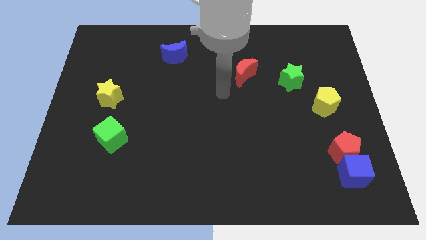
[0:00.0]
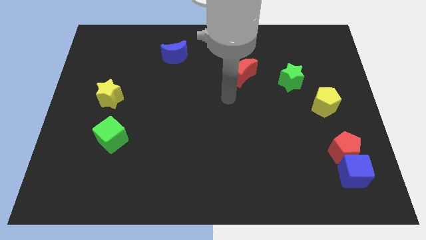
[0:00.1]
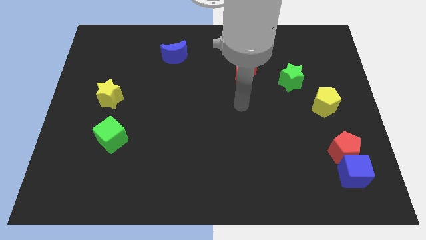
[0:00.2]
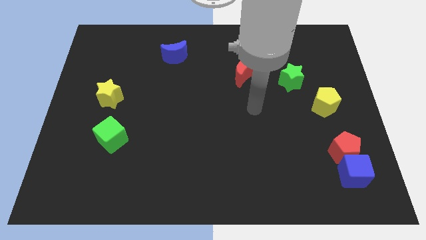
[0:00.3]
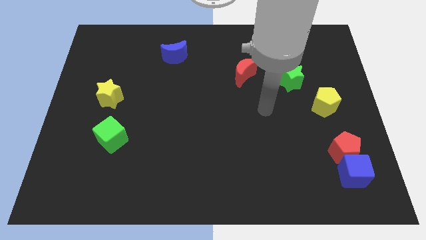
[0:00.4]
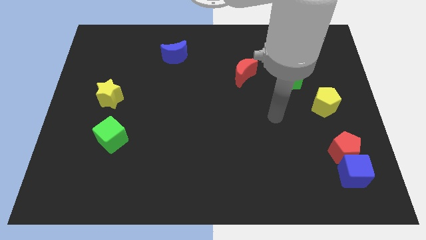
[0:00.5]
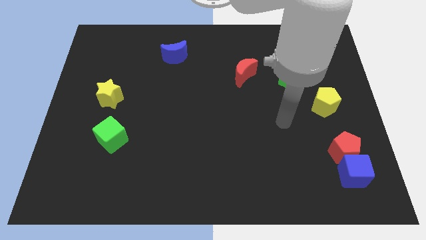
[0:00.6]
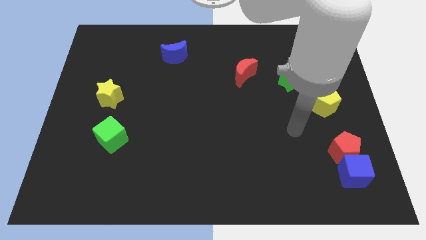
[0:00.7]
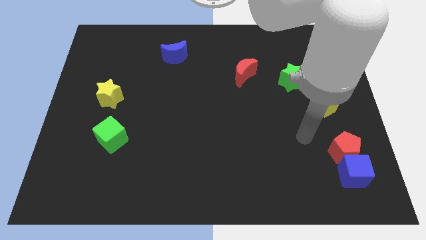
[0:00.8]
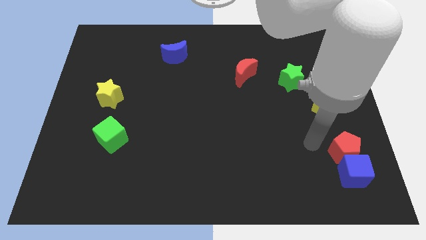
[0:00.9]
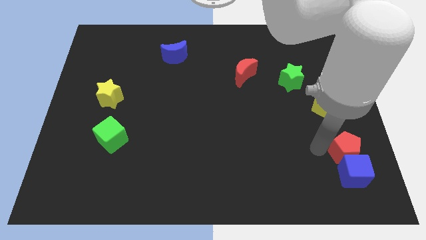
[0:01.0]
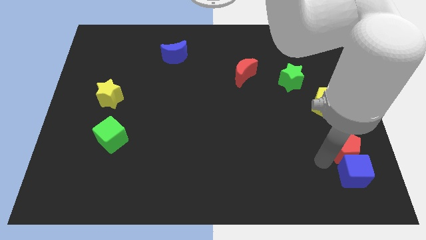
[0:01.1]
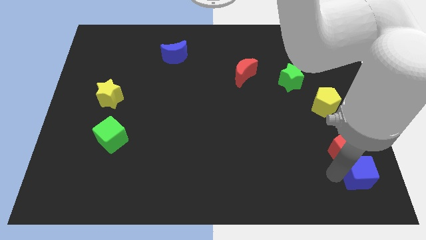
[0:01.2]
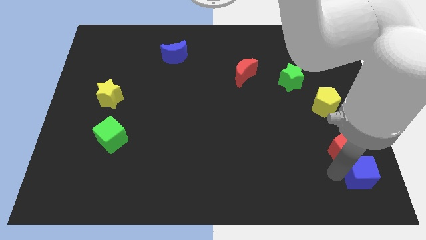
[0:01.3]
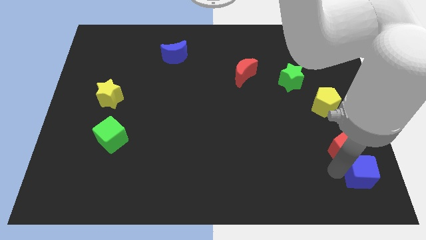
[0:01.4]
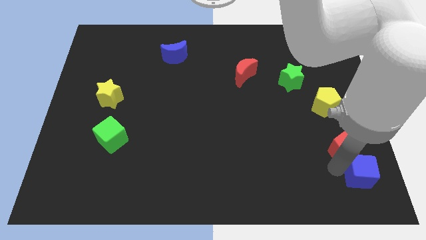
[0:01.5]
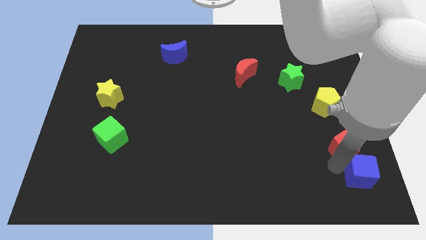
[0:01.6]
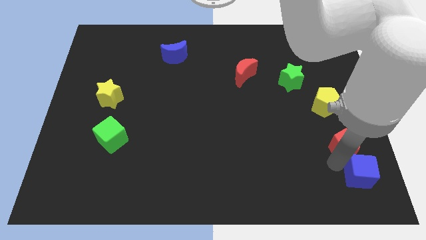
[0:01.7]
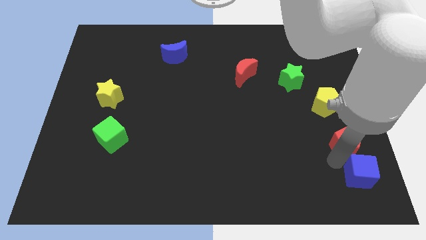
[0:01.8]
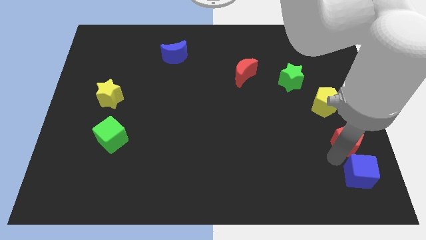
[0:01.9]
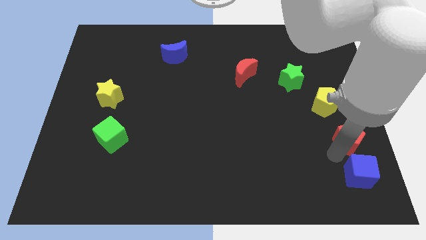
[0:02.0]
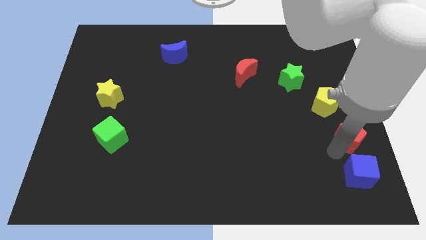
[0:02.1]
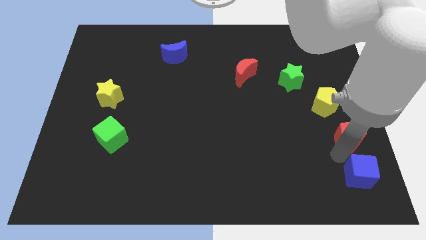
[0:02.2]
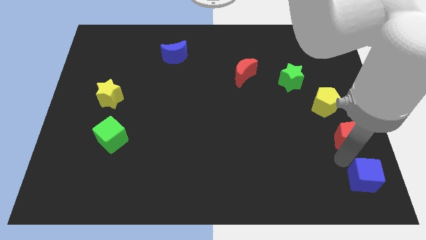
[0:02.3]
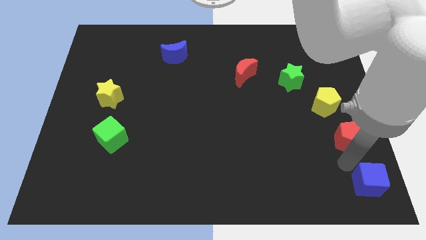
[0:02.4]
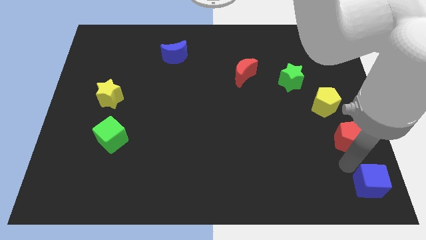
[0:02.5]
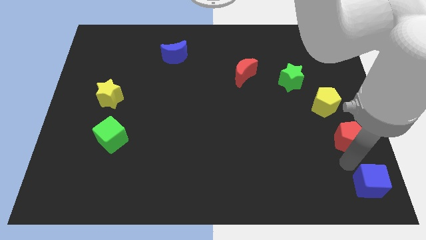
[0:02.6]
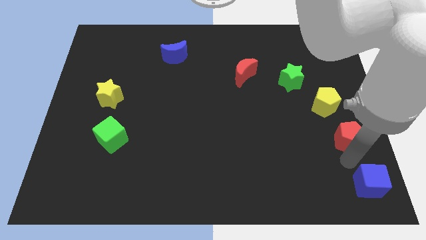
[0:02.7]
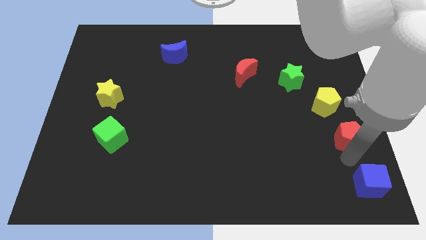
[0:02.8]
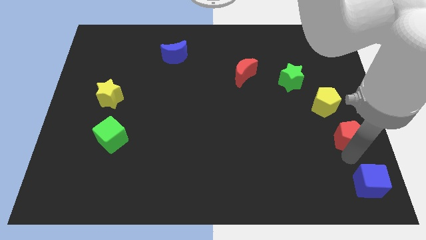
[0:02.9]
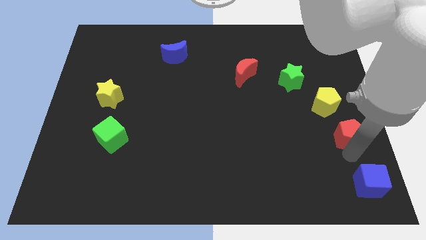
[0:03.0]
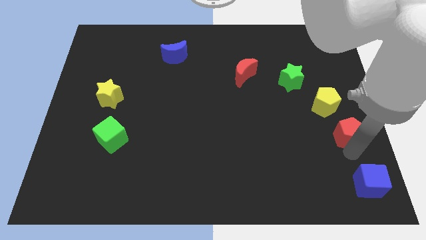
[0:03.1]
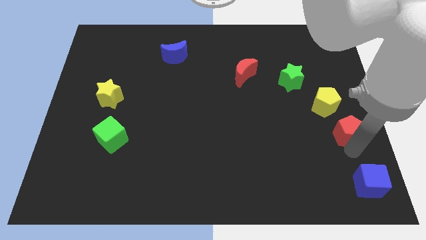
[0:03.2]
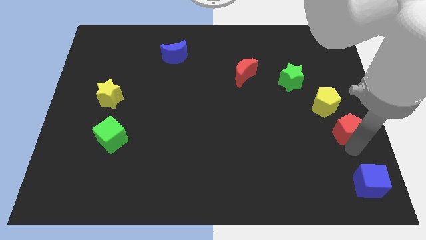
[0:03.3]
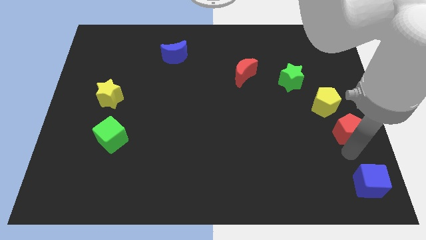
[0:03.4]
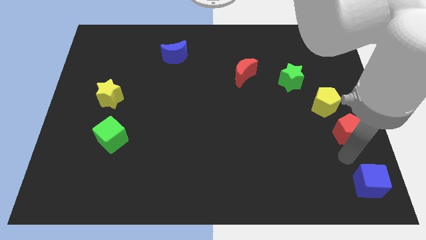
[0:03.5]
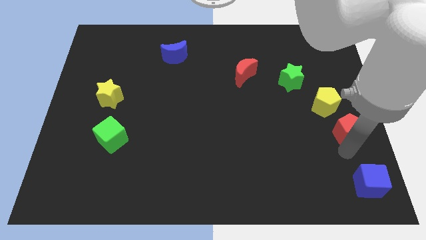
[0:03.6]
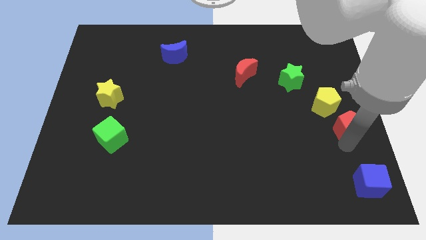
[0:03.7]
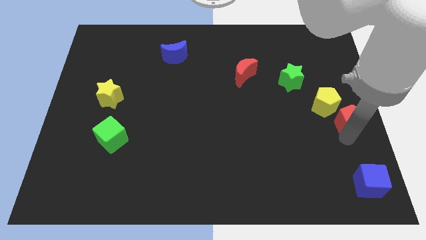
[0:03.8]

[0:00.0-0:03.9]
move the red pentagon slightly up

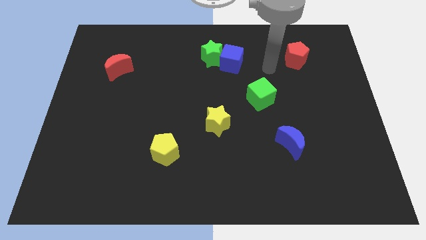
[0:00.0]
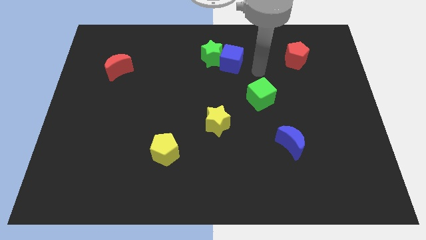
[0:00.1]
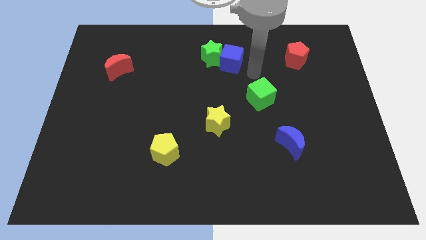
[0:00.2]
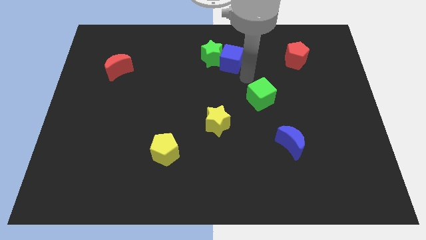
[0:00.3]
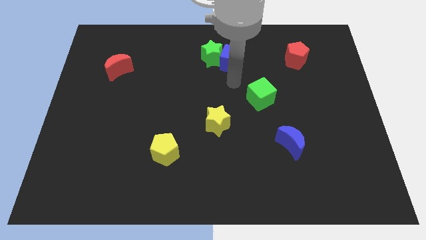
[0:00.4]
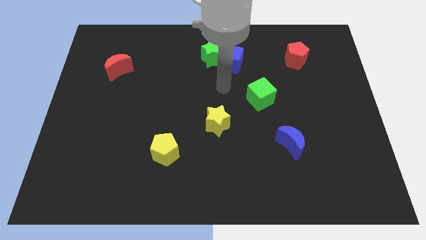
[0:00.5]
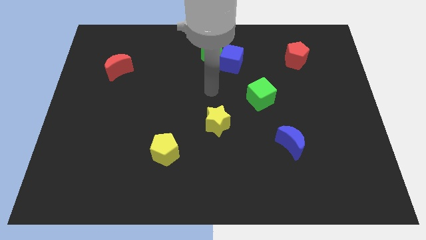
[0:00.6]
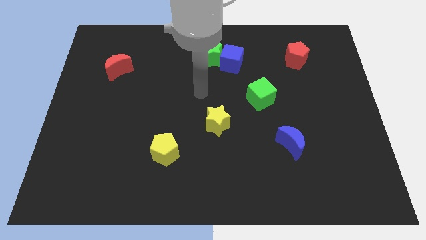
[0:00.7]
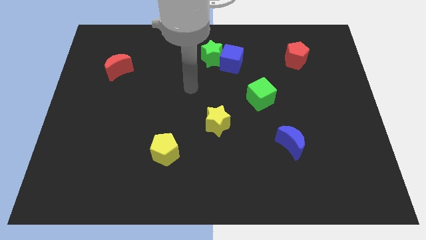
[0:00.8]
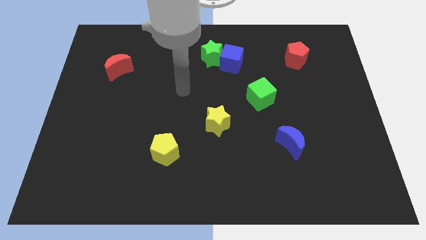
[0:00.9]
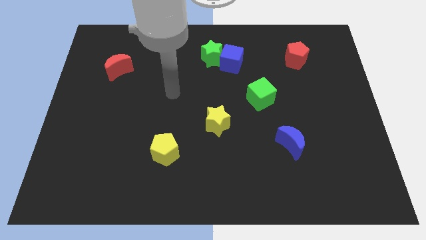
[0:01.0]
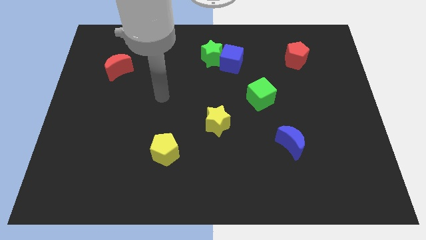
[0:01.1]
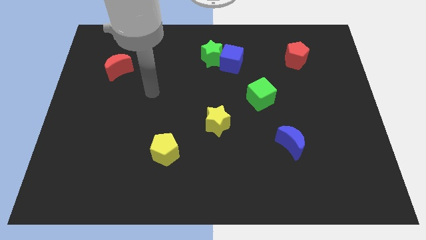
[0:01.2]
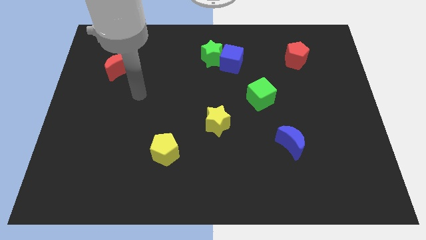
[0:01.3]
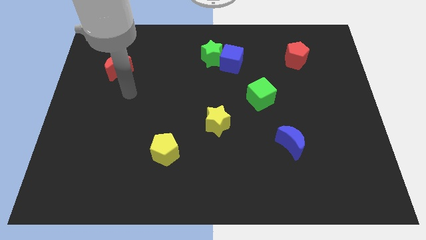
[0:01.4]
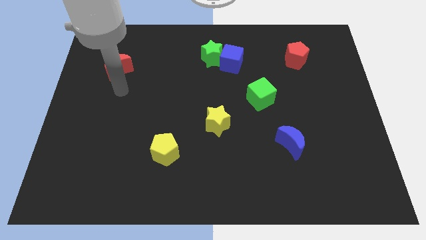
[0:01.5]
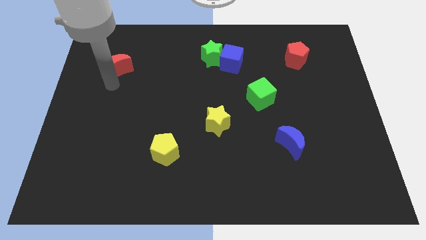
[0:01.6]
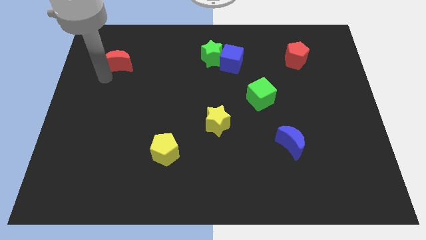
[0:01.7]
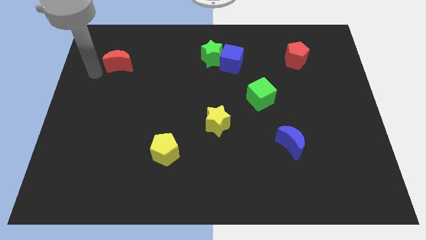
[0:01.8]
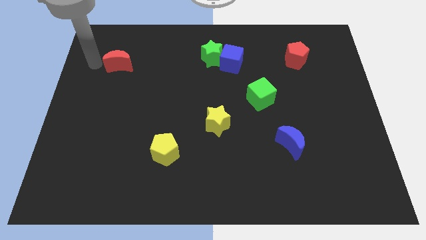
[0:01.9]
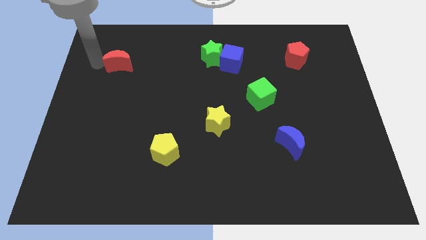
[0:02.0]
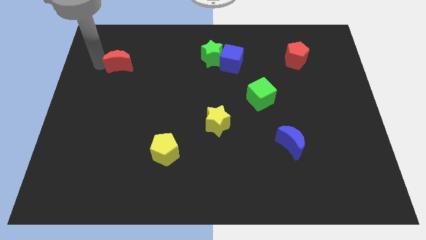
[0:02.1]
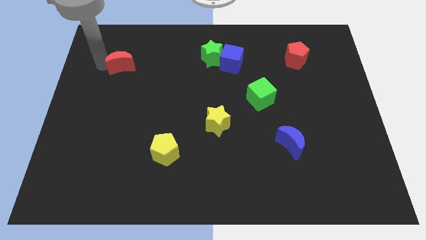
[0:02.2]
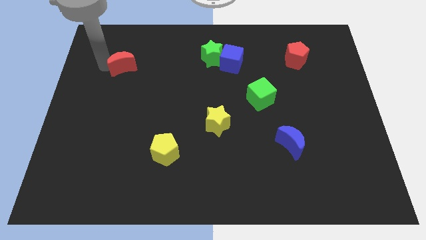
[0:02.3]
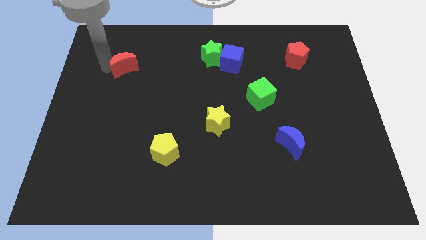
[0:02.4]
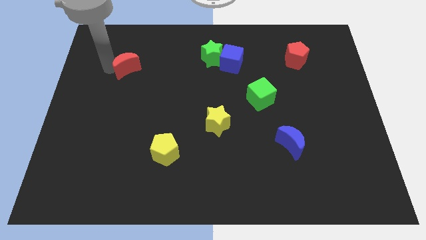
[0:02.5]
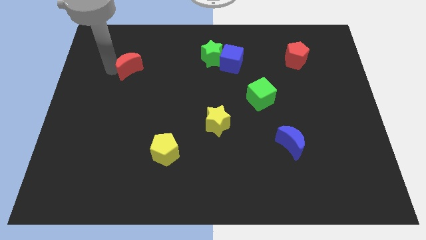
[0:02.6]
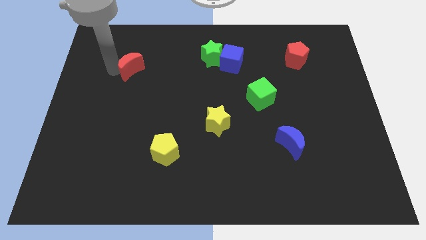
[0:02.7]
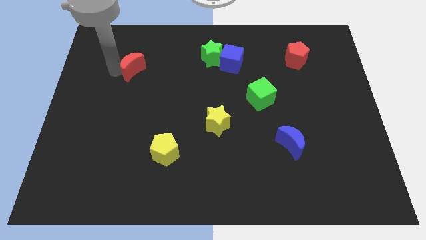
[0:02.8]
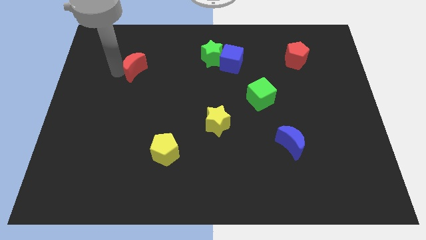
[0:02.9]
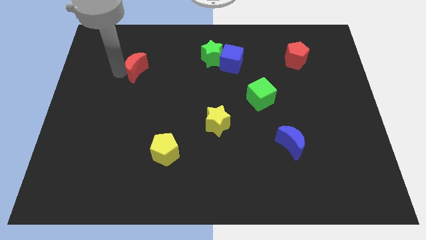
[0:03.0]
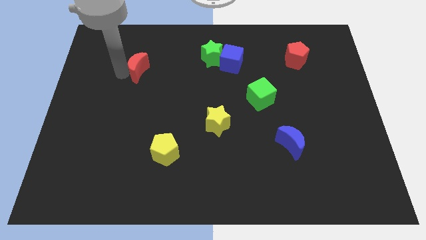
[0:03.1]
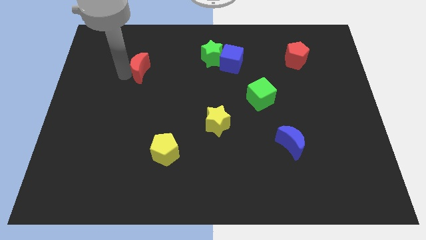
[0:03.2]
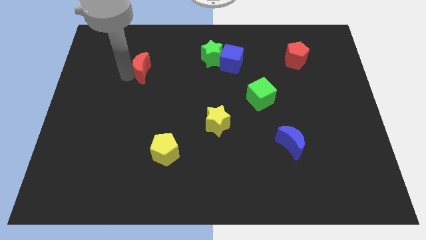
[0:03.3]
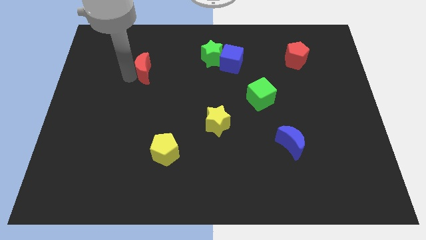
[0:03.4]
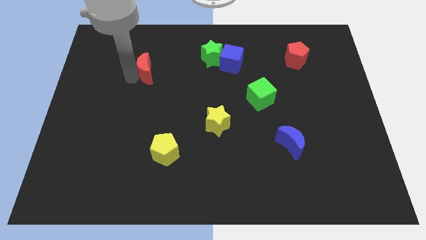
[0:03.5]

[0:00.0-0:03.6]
slightly move the red moon to the right

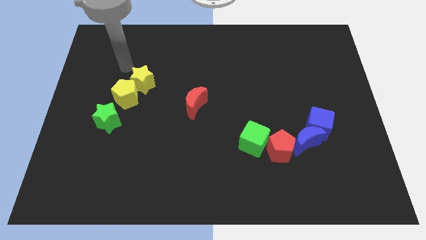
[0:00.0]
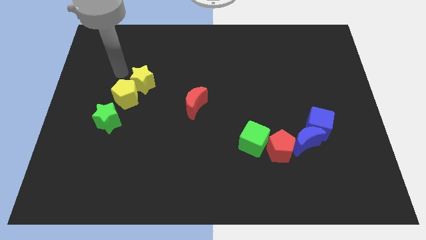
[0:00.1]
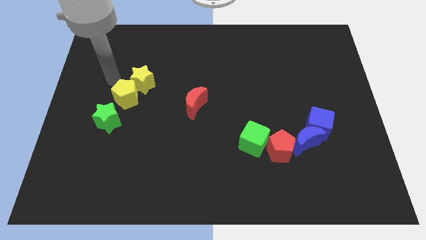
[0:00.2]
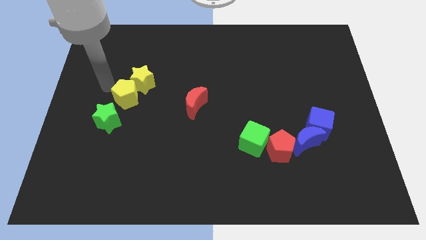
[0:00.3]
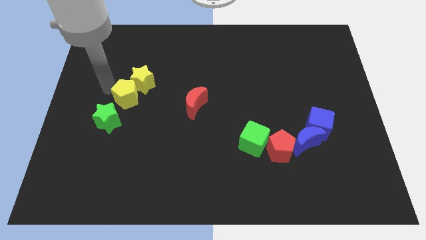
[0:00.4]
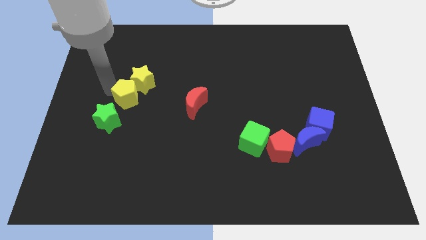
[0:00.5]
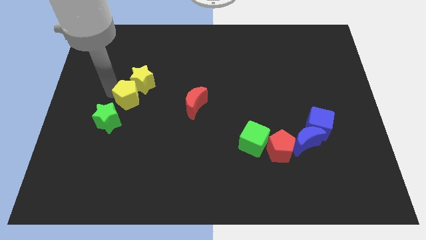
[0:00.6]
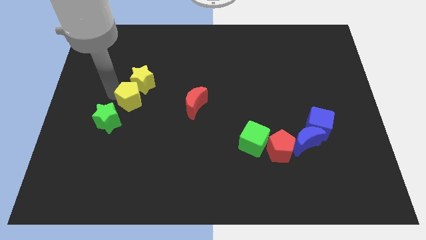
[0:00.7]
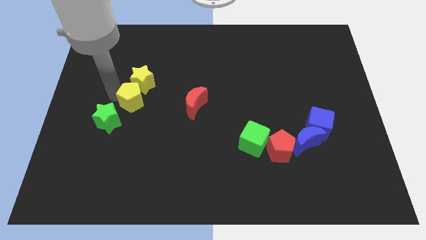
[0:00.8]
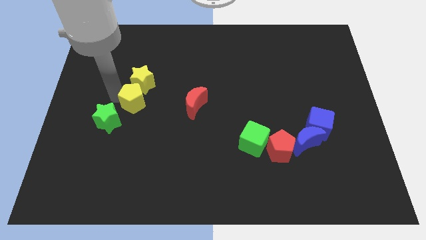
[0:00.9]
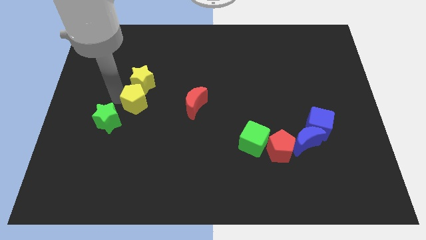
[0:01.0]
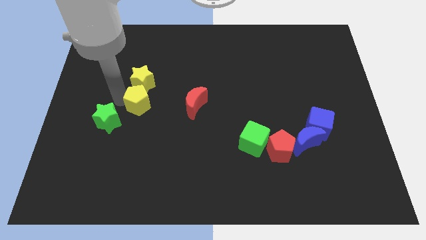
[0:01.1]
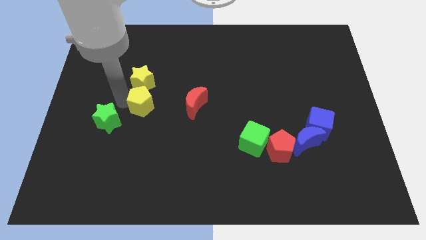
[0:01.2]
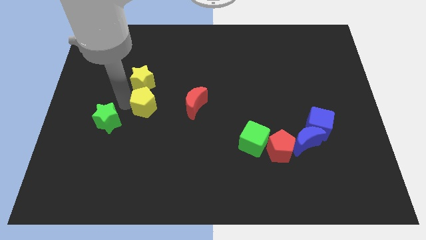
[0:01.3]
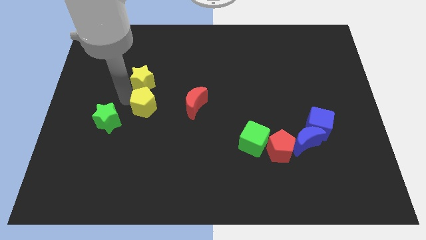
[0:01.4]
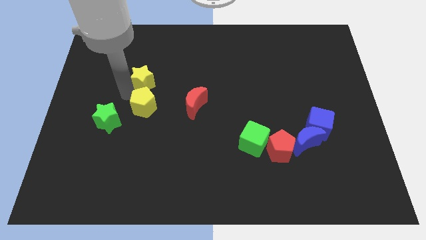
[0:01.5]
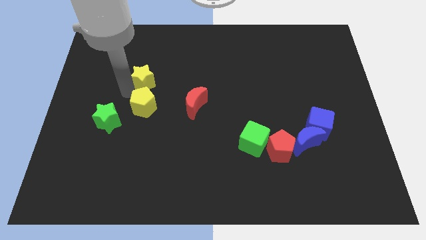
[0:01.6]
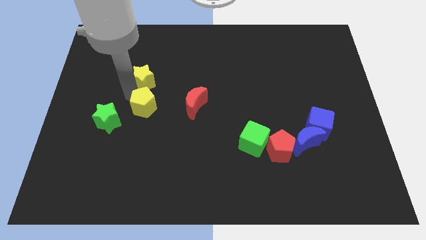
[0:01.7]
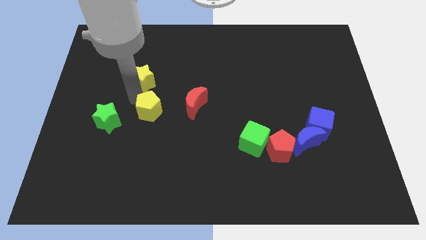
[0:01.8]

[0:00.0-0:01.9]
slightly move the yellow pentagon down and then right
